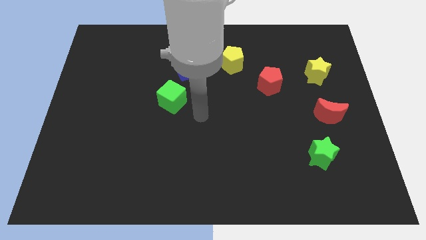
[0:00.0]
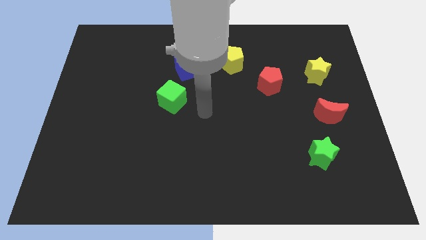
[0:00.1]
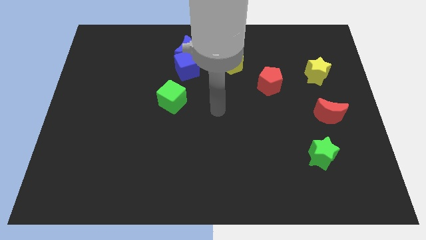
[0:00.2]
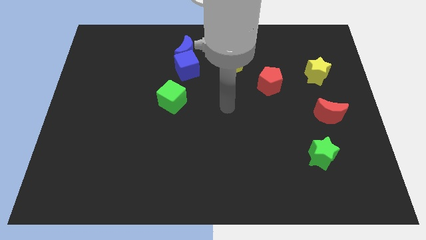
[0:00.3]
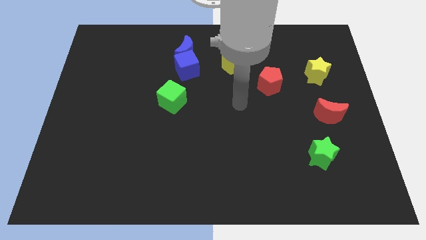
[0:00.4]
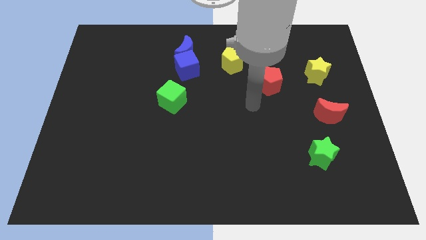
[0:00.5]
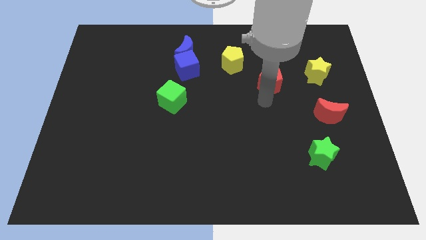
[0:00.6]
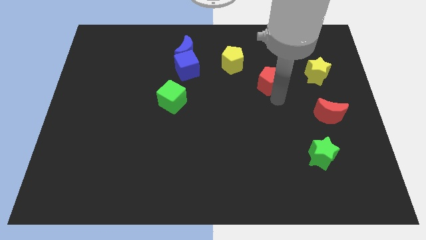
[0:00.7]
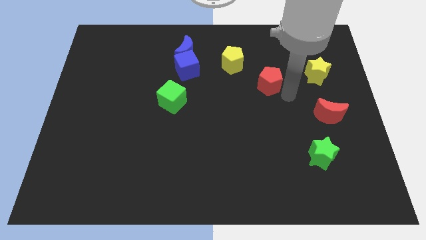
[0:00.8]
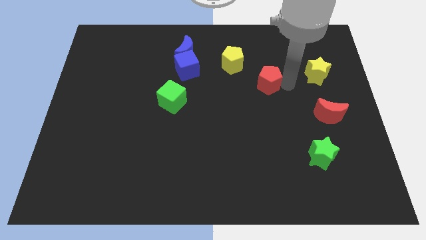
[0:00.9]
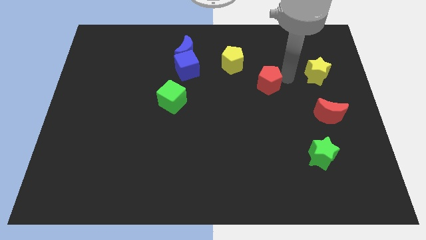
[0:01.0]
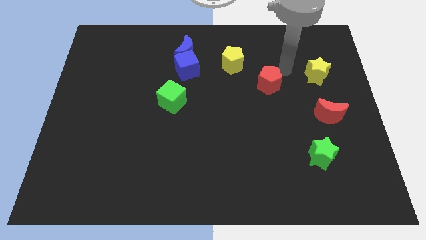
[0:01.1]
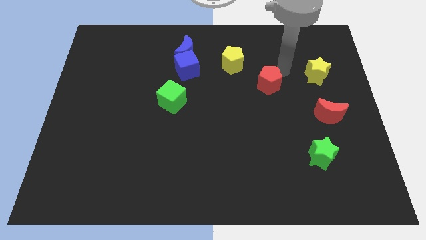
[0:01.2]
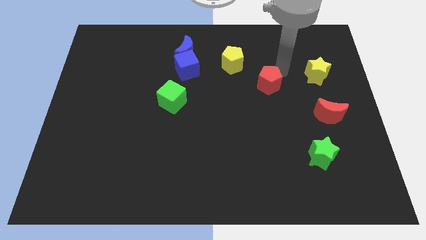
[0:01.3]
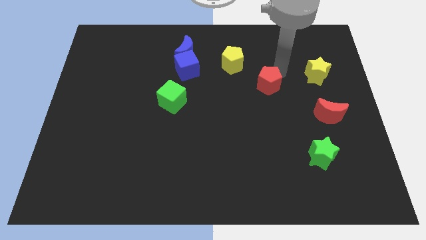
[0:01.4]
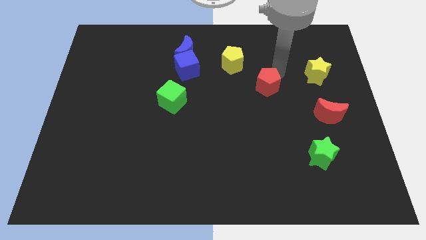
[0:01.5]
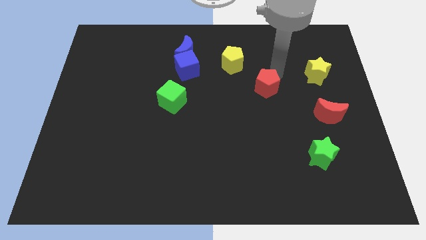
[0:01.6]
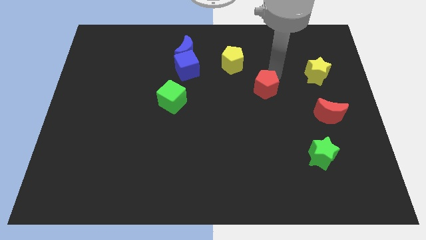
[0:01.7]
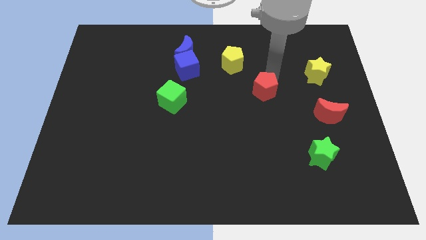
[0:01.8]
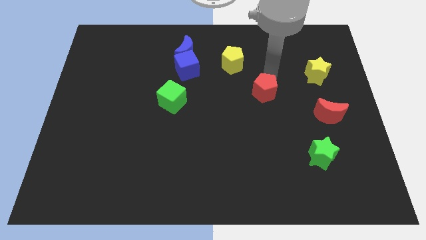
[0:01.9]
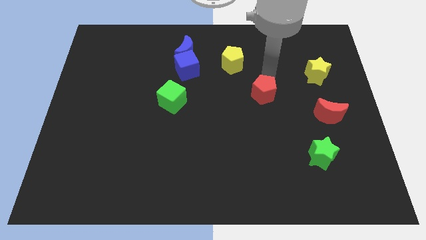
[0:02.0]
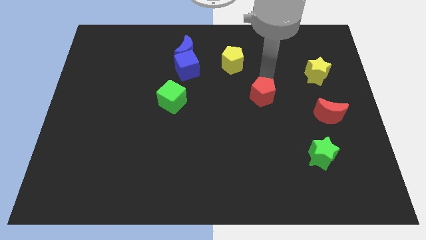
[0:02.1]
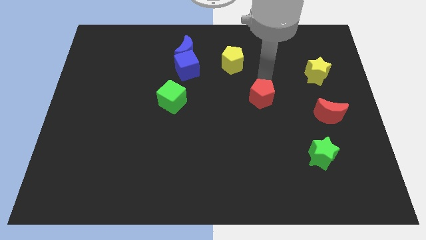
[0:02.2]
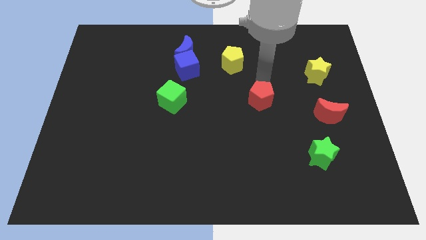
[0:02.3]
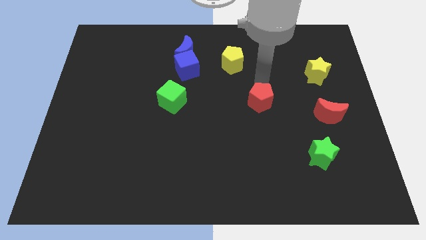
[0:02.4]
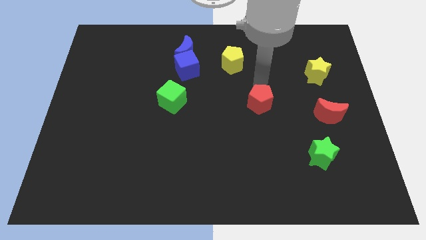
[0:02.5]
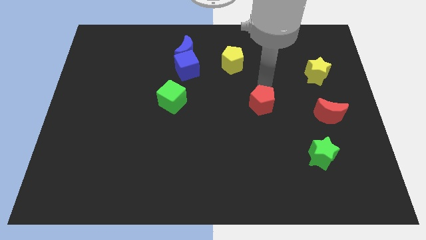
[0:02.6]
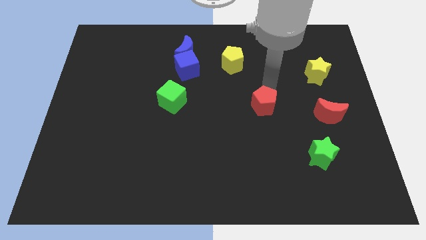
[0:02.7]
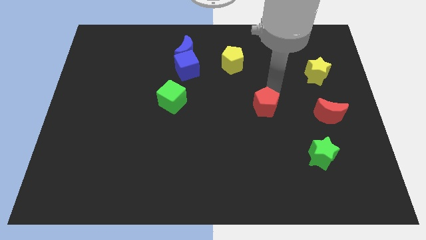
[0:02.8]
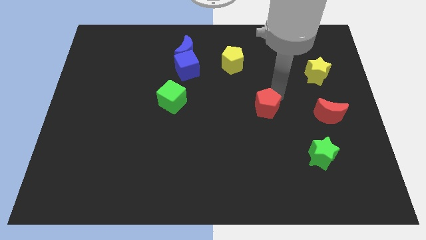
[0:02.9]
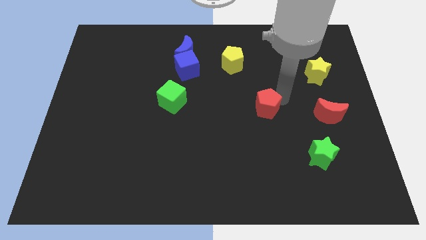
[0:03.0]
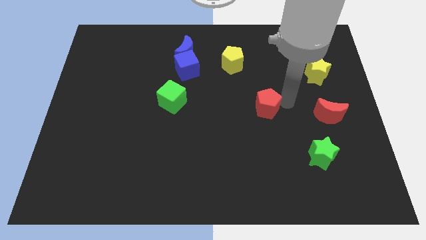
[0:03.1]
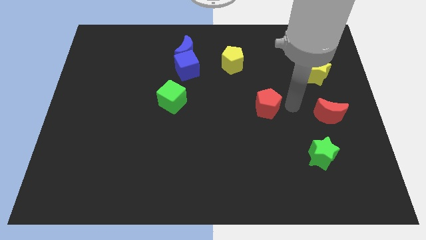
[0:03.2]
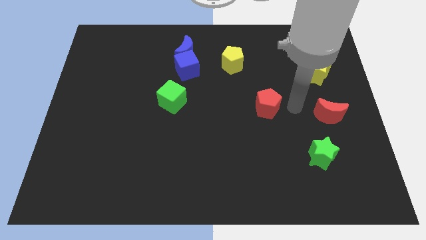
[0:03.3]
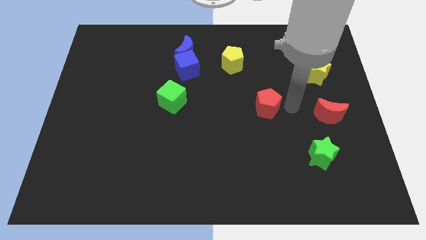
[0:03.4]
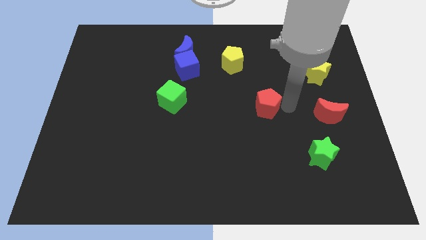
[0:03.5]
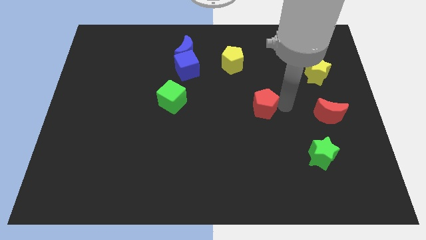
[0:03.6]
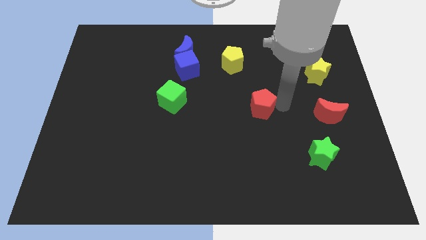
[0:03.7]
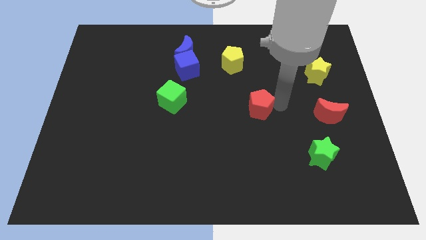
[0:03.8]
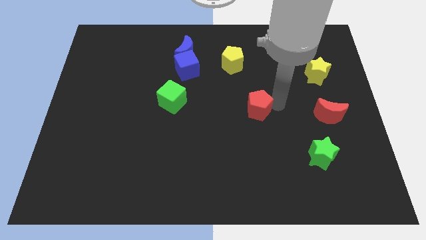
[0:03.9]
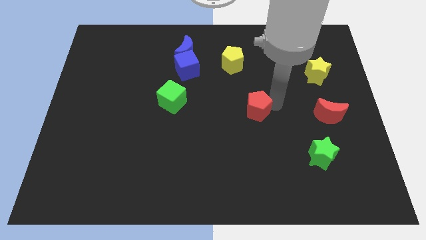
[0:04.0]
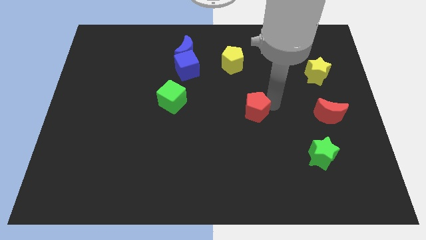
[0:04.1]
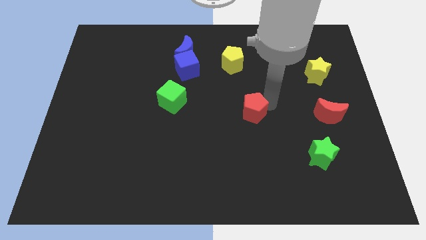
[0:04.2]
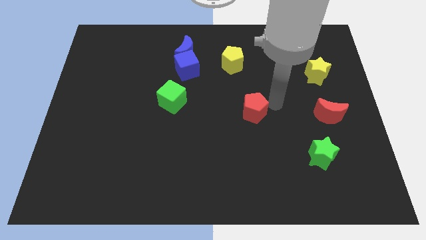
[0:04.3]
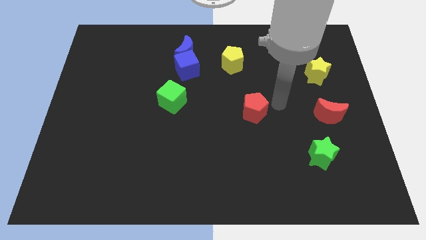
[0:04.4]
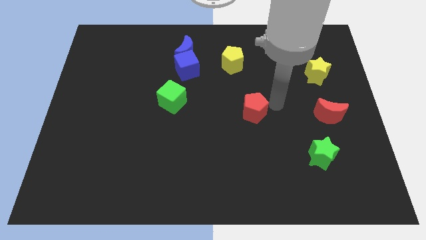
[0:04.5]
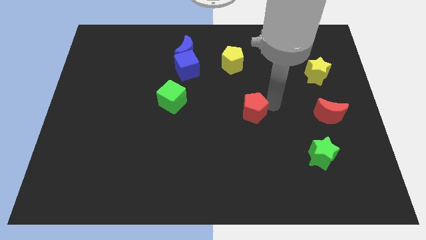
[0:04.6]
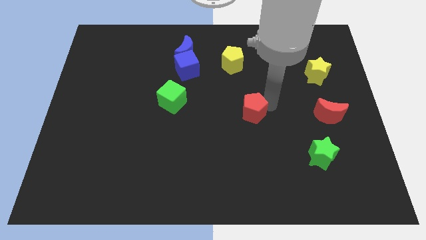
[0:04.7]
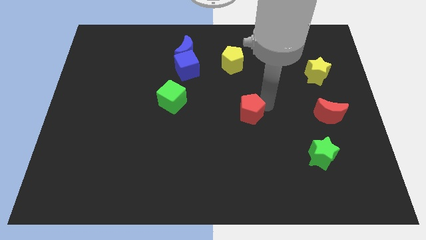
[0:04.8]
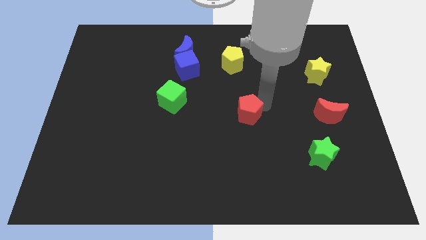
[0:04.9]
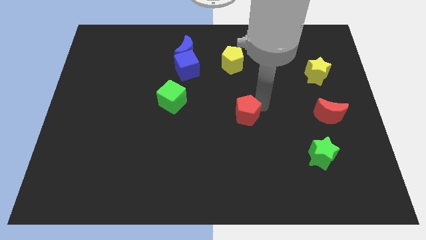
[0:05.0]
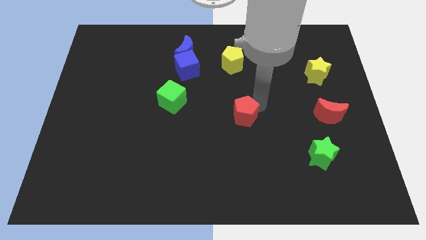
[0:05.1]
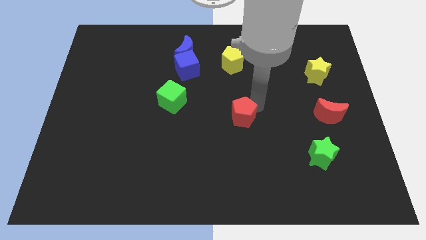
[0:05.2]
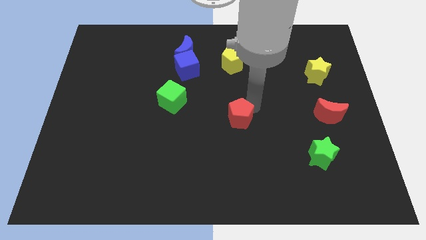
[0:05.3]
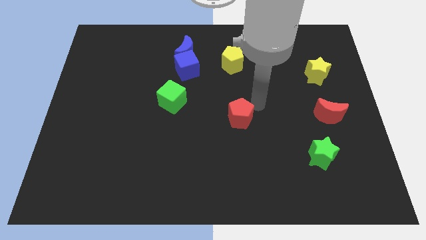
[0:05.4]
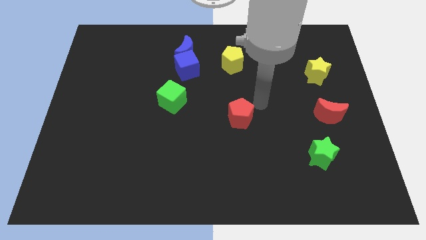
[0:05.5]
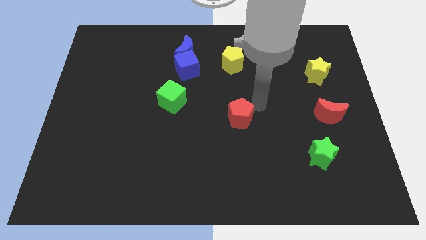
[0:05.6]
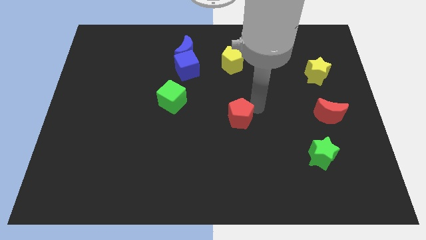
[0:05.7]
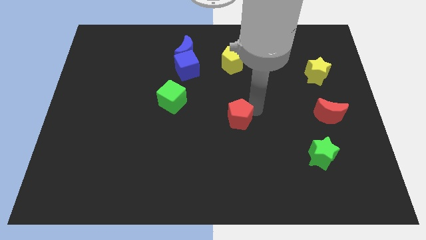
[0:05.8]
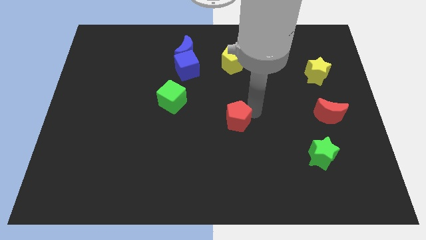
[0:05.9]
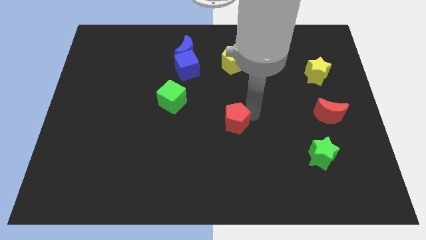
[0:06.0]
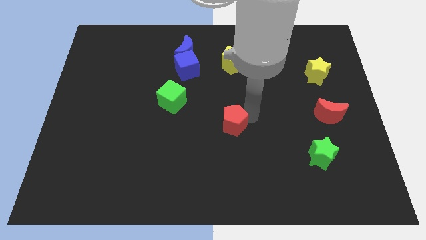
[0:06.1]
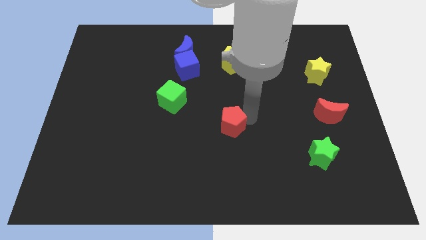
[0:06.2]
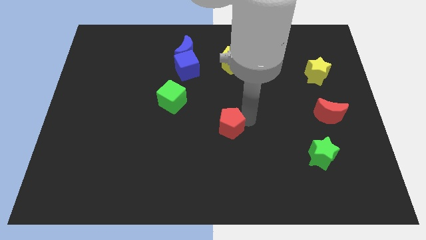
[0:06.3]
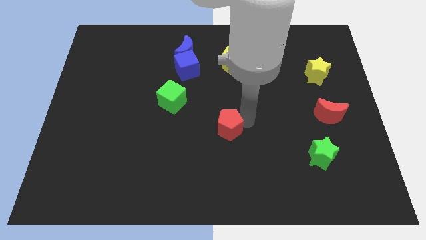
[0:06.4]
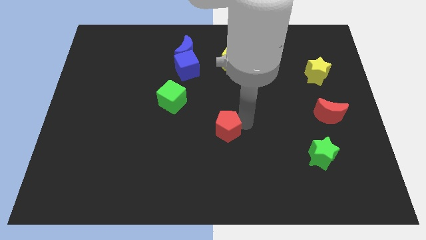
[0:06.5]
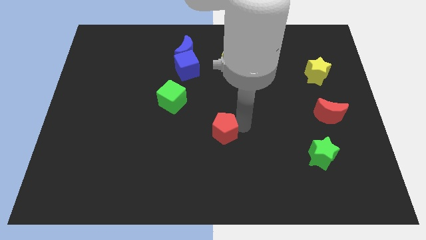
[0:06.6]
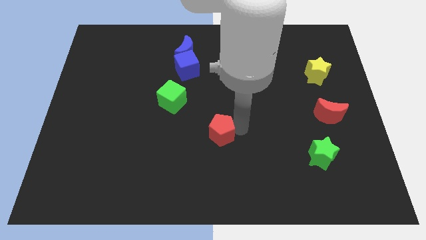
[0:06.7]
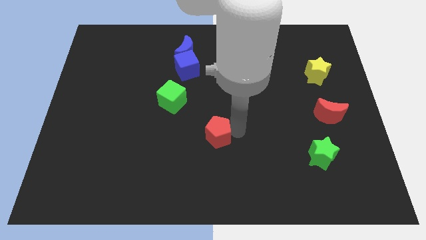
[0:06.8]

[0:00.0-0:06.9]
move the red pentagon downwards and to the left diagonally

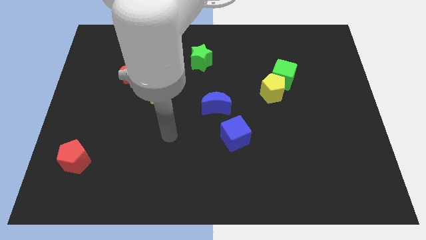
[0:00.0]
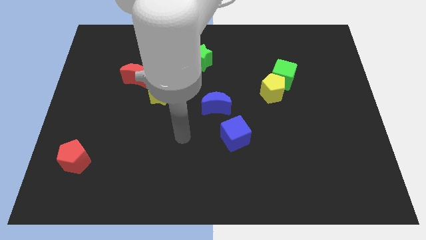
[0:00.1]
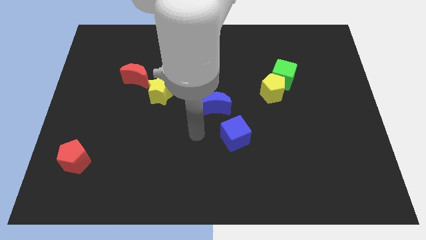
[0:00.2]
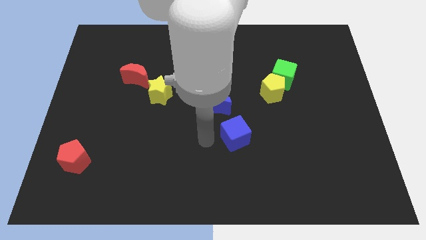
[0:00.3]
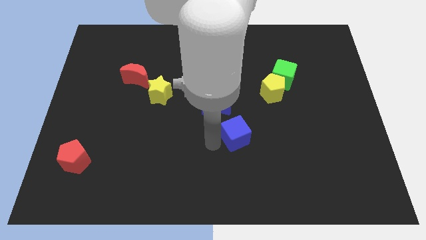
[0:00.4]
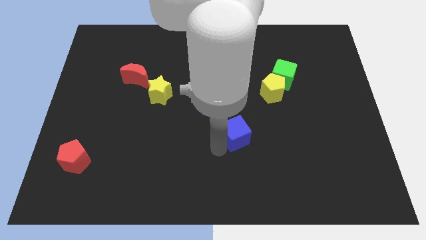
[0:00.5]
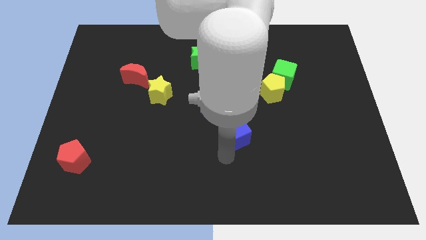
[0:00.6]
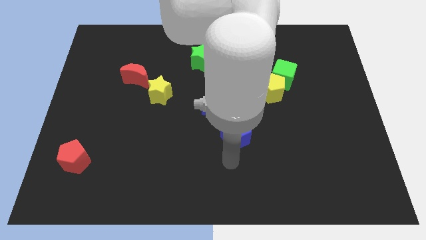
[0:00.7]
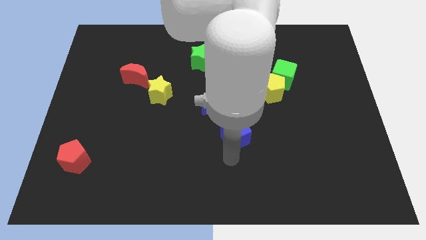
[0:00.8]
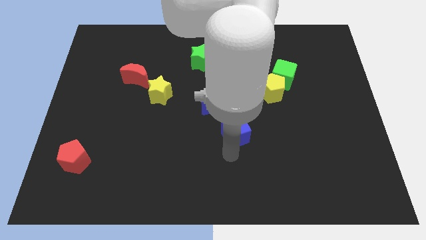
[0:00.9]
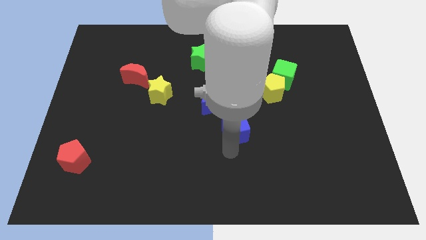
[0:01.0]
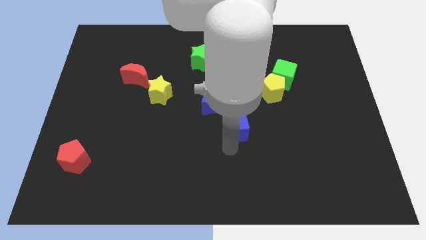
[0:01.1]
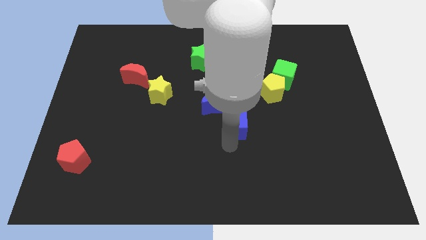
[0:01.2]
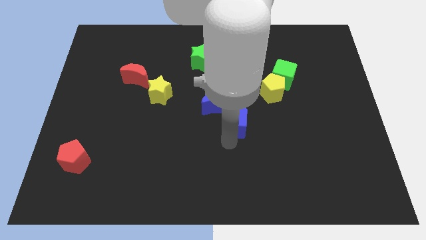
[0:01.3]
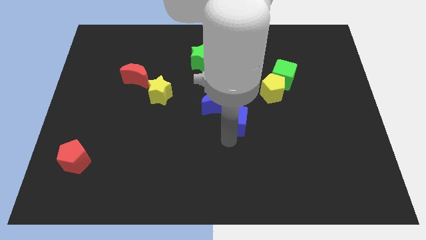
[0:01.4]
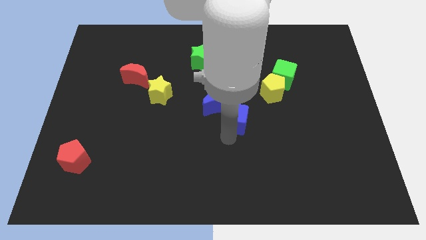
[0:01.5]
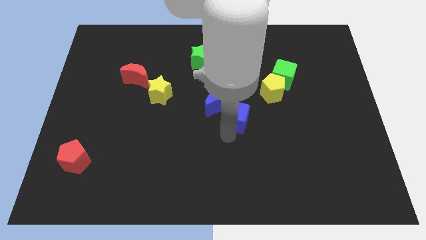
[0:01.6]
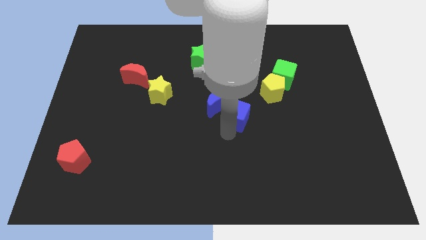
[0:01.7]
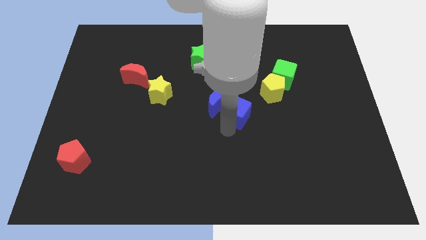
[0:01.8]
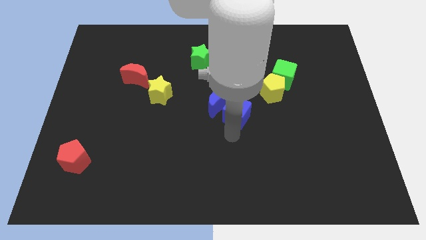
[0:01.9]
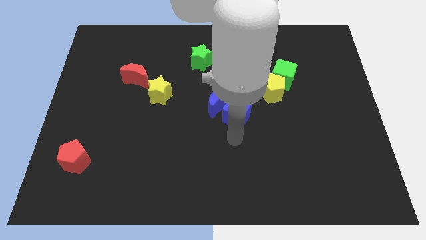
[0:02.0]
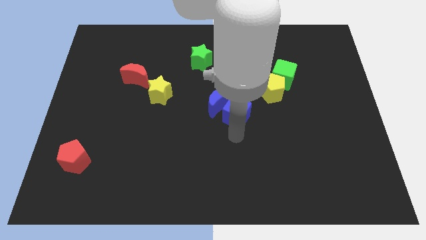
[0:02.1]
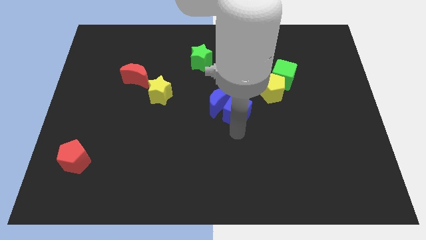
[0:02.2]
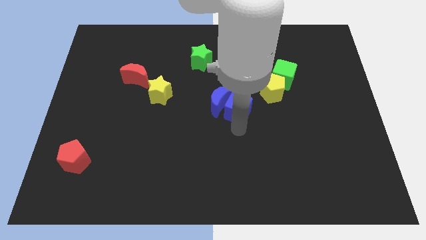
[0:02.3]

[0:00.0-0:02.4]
slightly move the blue cube upwards
